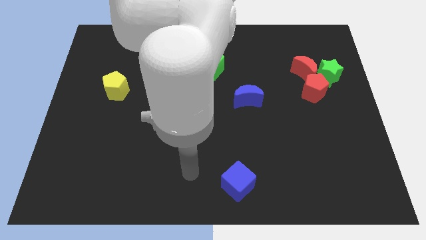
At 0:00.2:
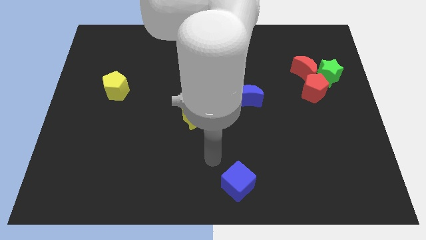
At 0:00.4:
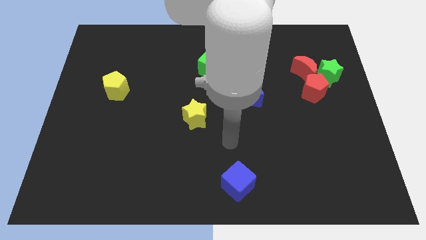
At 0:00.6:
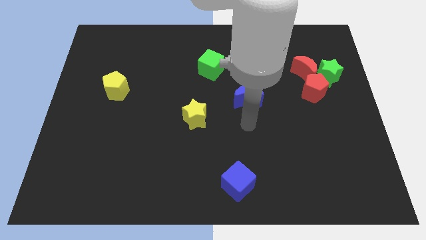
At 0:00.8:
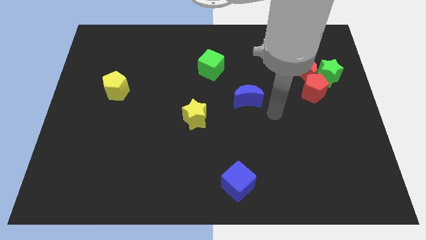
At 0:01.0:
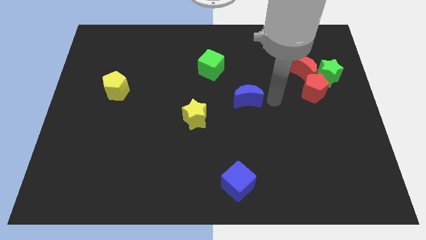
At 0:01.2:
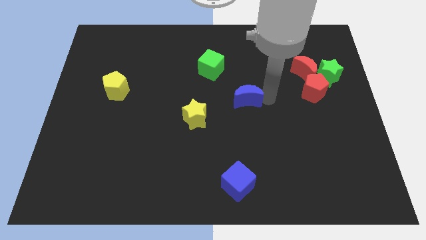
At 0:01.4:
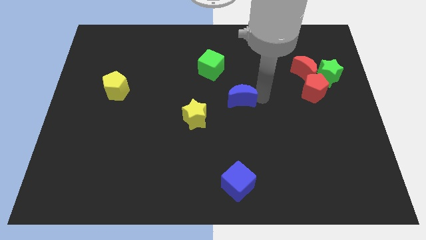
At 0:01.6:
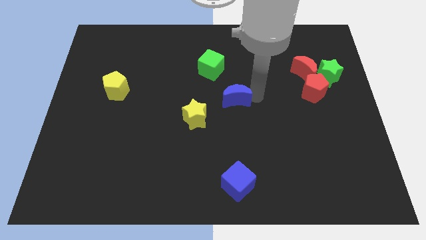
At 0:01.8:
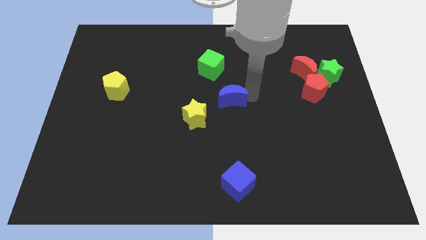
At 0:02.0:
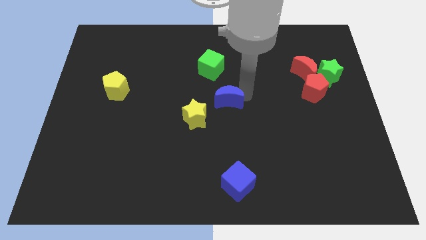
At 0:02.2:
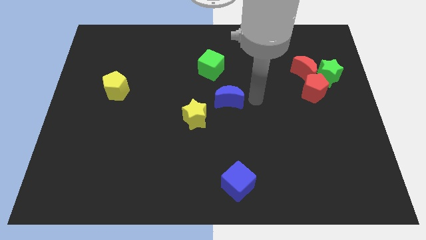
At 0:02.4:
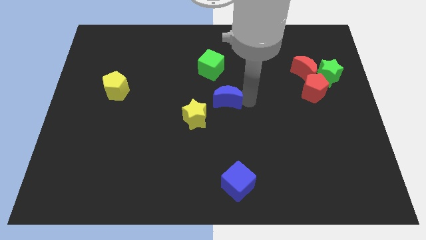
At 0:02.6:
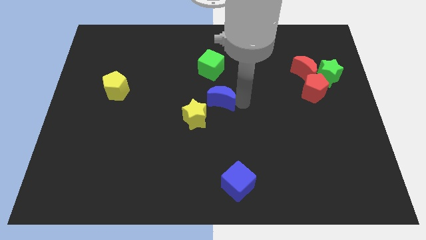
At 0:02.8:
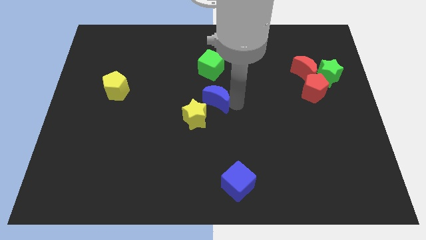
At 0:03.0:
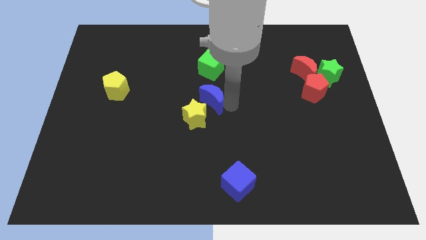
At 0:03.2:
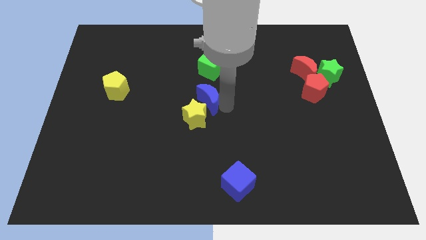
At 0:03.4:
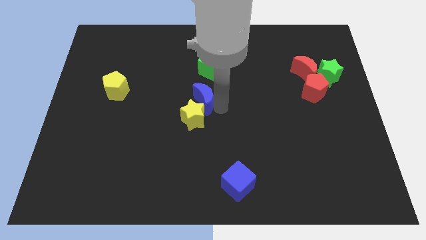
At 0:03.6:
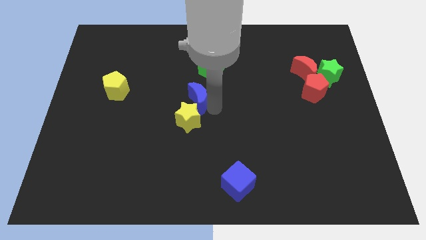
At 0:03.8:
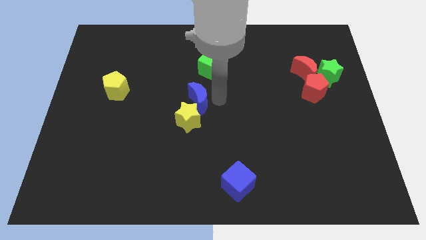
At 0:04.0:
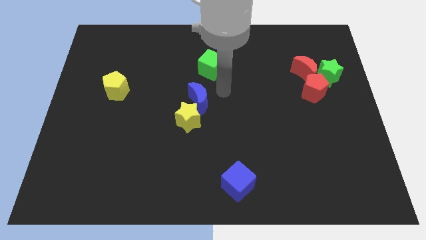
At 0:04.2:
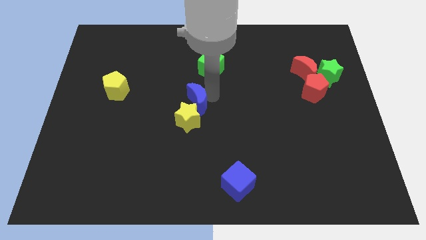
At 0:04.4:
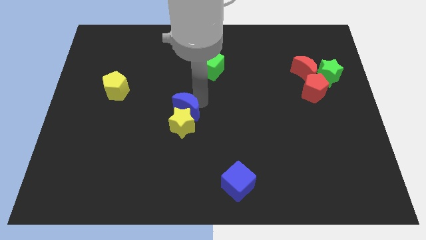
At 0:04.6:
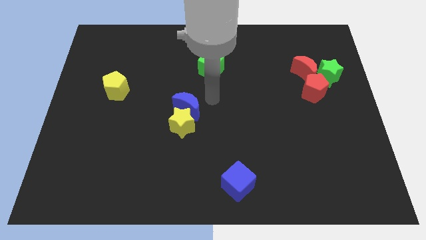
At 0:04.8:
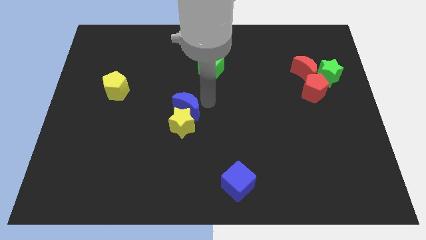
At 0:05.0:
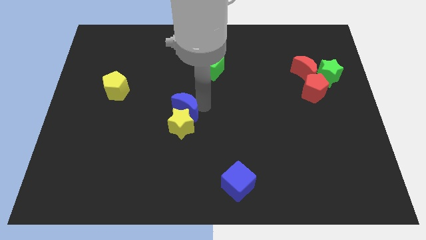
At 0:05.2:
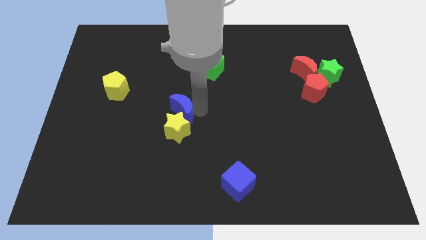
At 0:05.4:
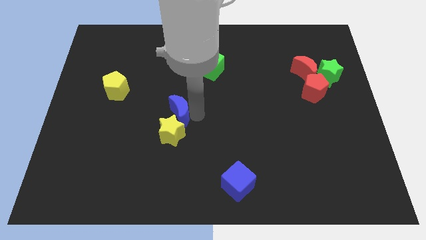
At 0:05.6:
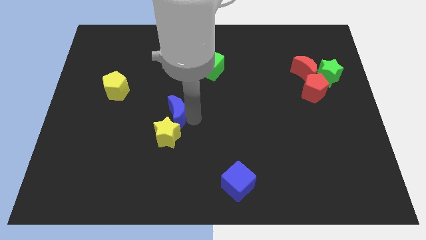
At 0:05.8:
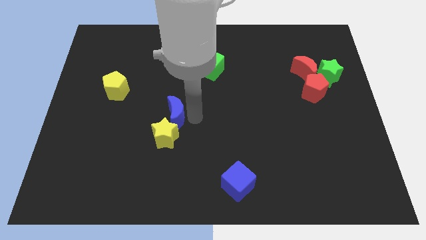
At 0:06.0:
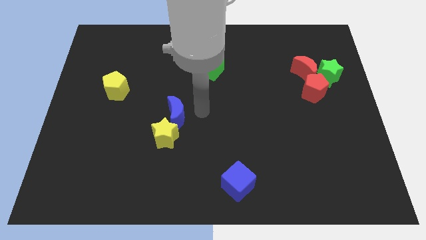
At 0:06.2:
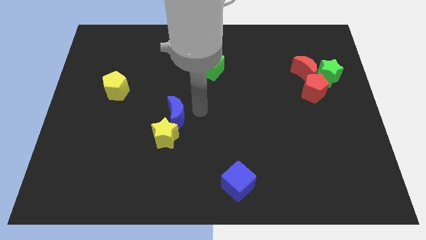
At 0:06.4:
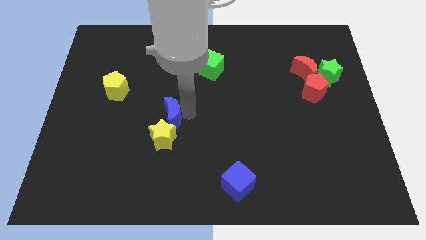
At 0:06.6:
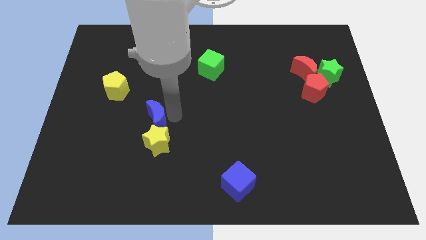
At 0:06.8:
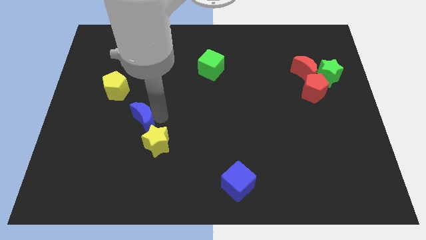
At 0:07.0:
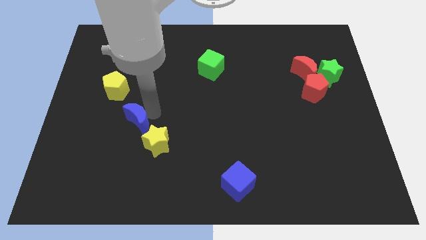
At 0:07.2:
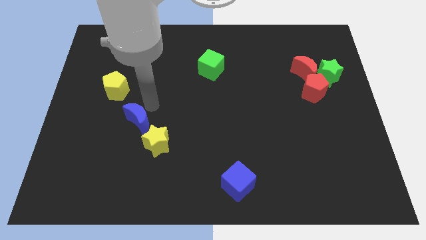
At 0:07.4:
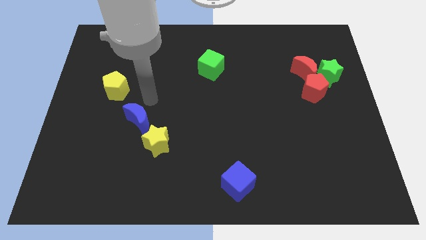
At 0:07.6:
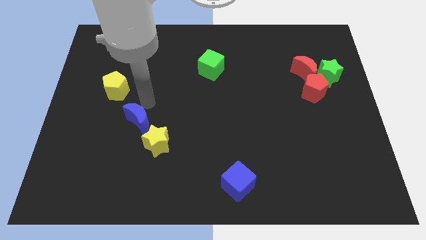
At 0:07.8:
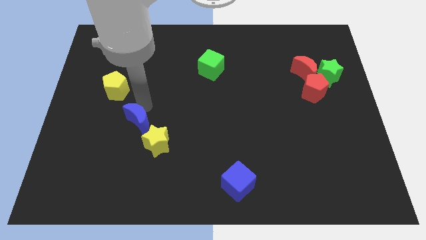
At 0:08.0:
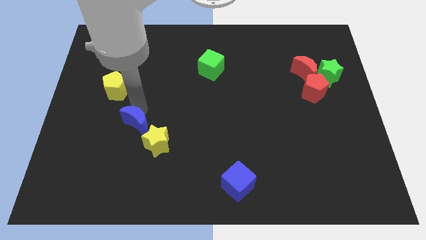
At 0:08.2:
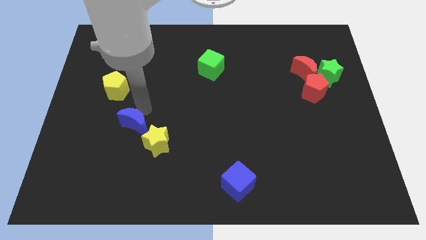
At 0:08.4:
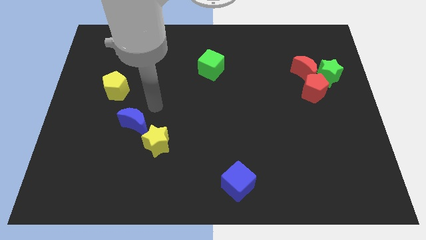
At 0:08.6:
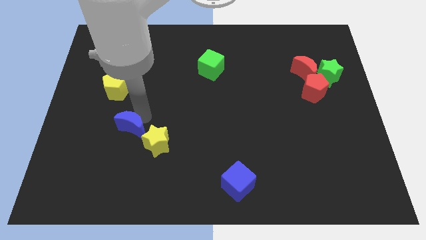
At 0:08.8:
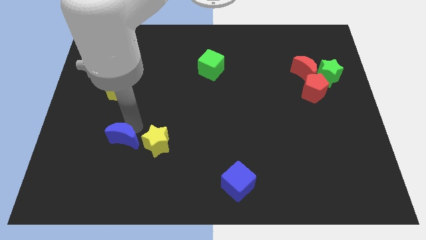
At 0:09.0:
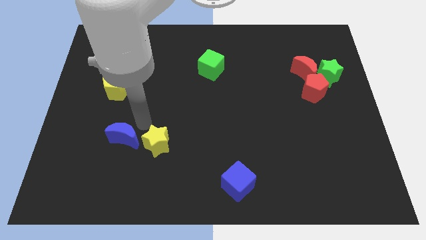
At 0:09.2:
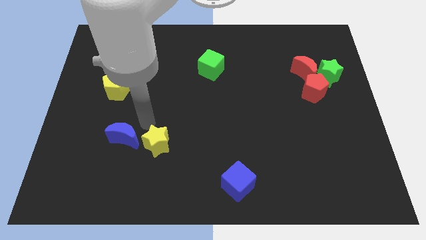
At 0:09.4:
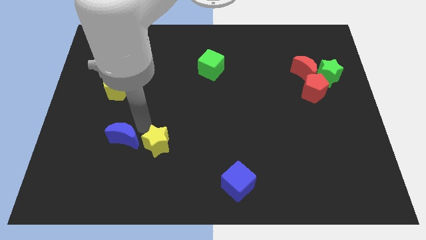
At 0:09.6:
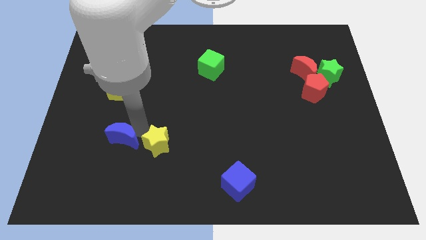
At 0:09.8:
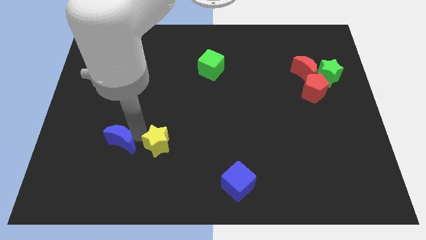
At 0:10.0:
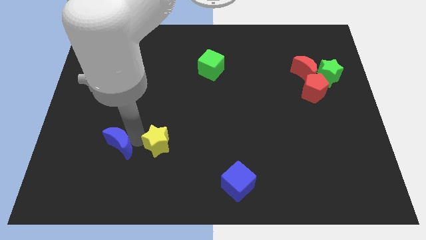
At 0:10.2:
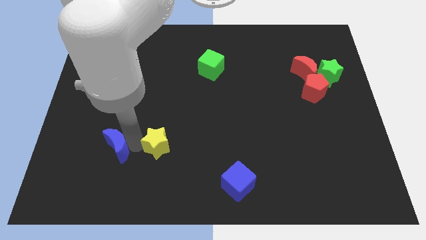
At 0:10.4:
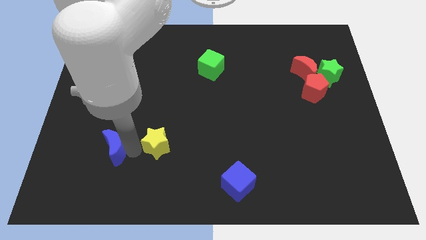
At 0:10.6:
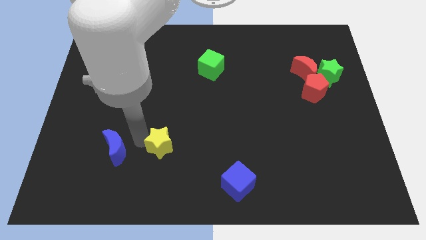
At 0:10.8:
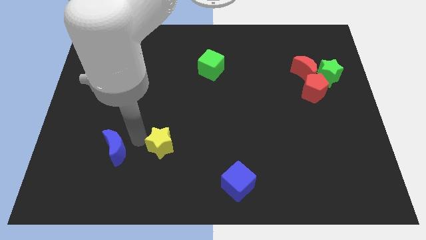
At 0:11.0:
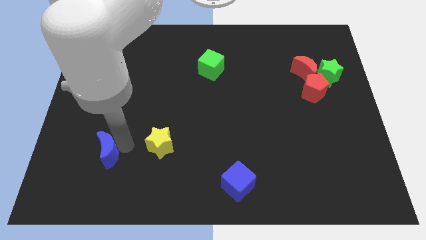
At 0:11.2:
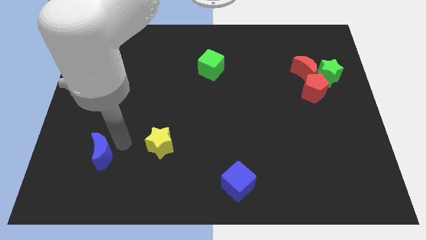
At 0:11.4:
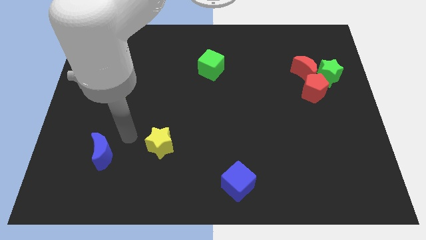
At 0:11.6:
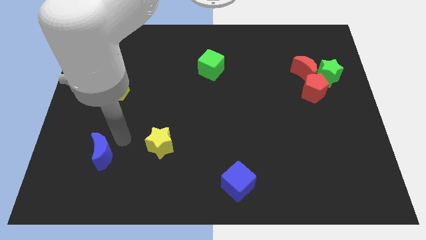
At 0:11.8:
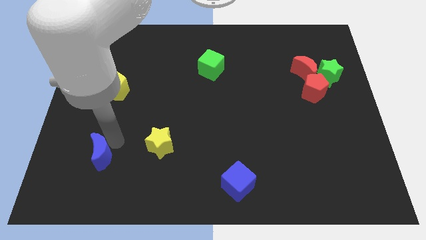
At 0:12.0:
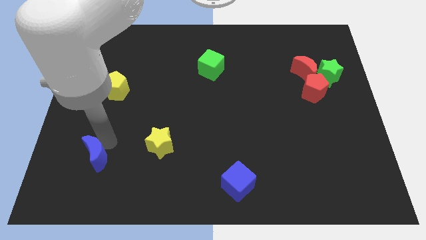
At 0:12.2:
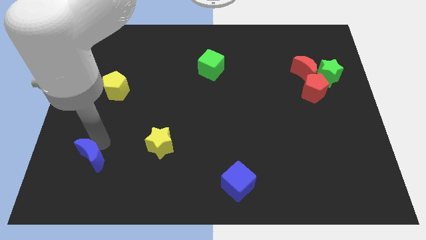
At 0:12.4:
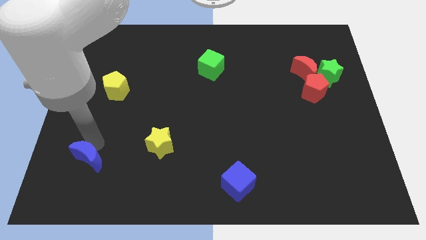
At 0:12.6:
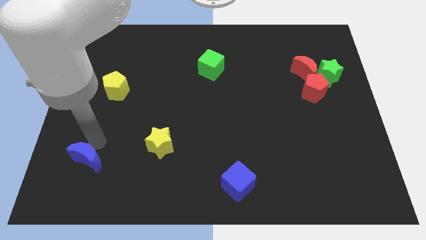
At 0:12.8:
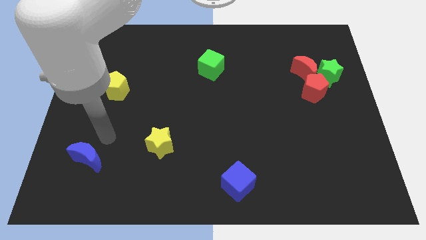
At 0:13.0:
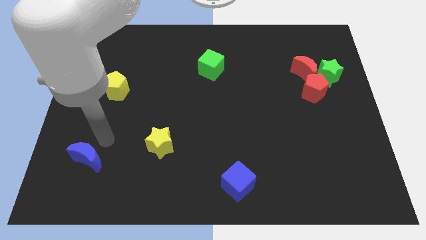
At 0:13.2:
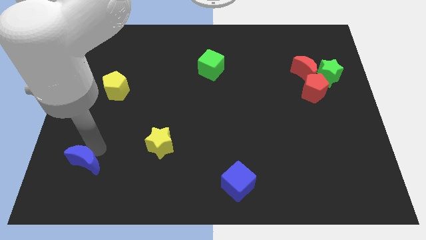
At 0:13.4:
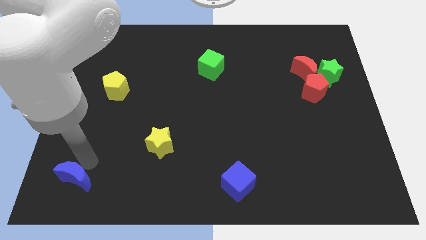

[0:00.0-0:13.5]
slide the blue moon to the bottom left corner
